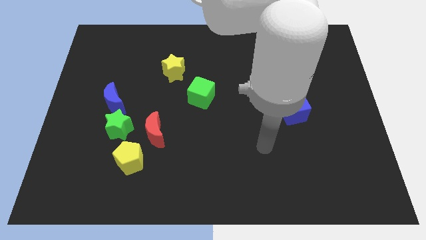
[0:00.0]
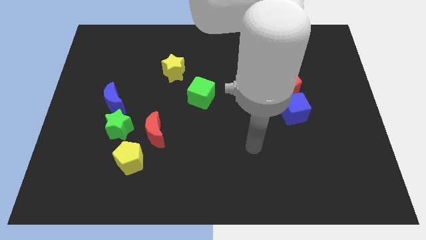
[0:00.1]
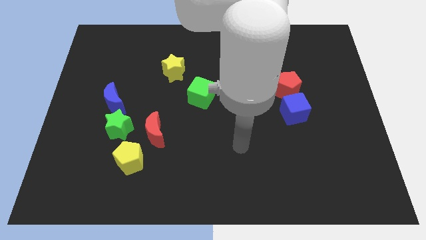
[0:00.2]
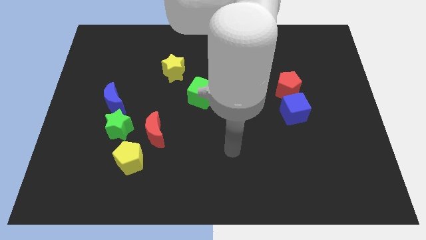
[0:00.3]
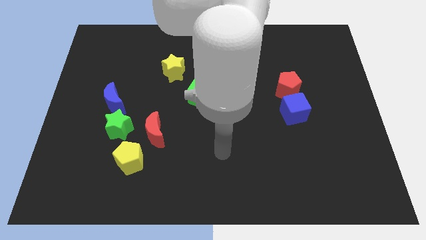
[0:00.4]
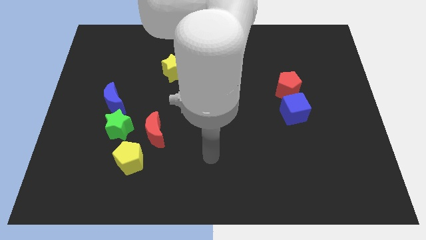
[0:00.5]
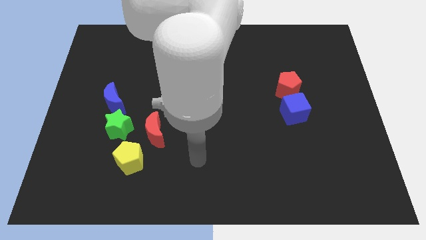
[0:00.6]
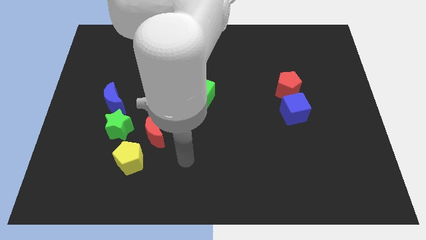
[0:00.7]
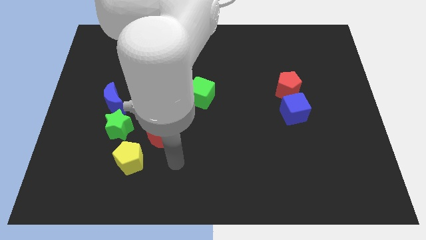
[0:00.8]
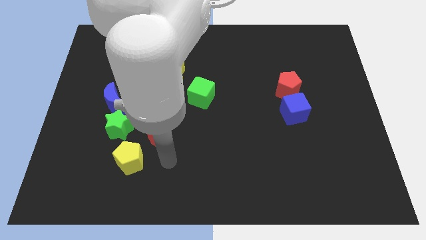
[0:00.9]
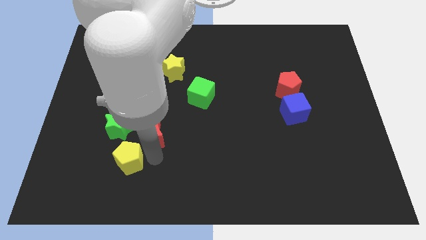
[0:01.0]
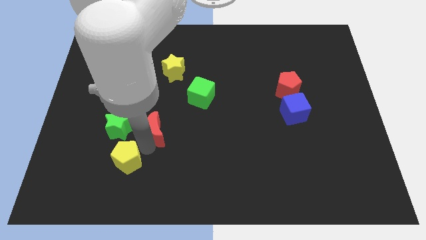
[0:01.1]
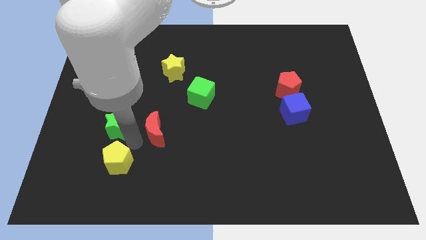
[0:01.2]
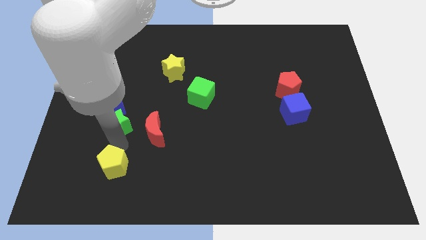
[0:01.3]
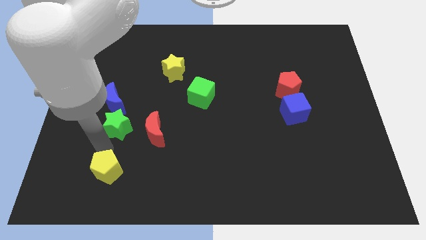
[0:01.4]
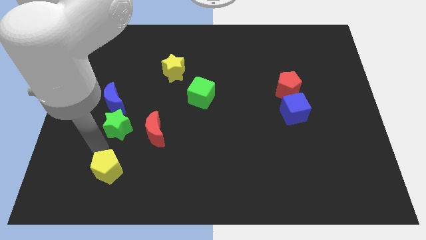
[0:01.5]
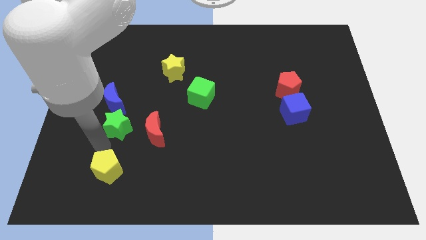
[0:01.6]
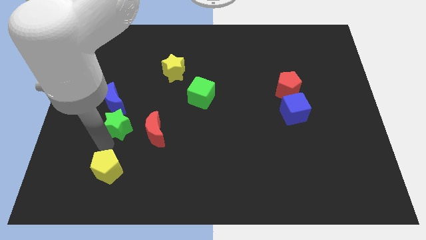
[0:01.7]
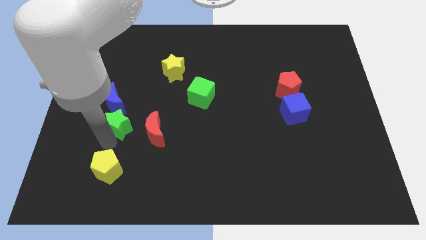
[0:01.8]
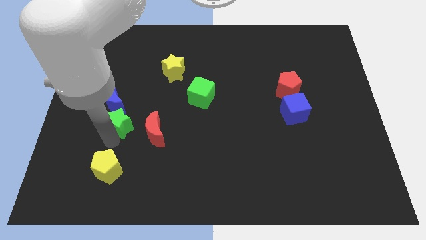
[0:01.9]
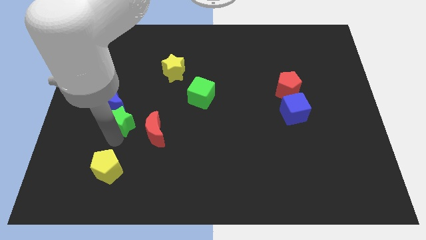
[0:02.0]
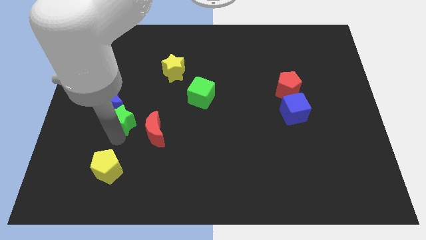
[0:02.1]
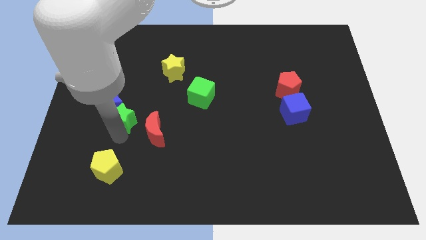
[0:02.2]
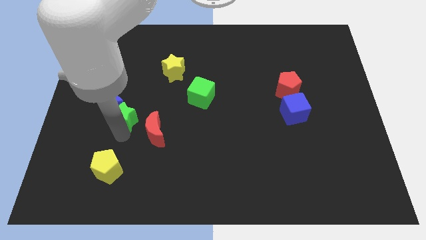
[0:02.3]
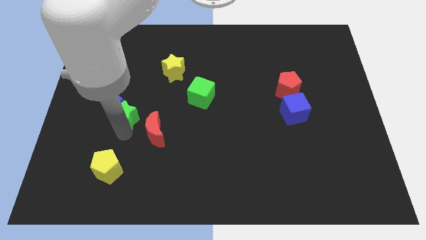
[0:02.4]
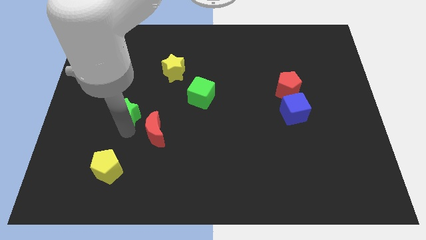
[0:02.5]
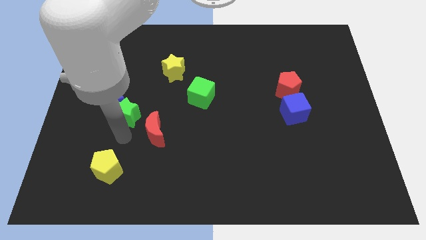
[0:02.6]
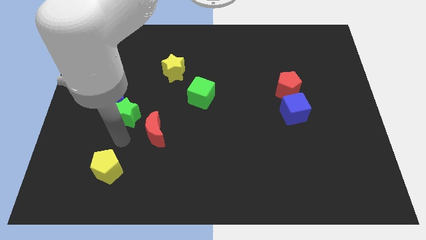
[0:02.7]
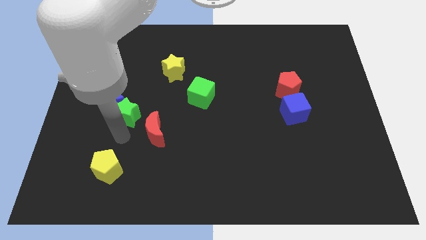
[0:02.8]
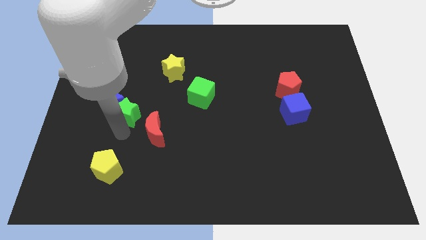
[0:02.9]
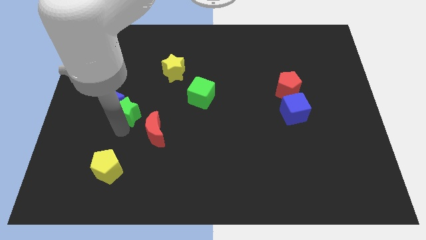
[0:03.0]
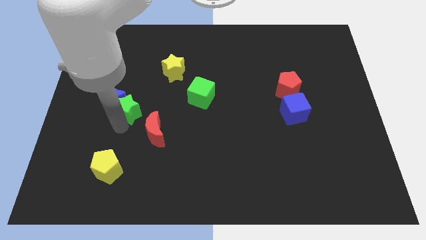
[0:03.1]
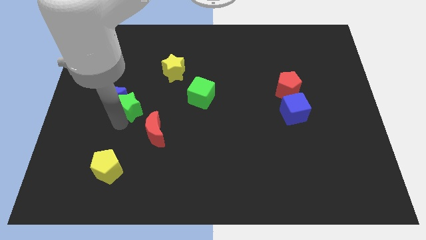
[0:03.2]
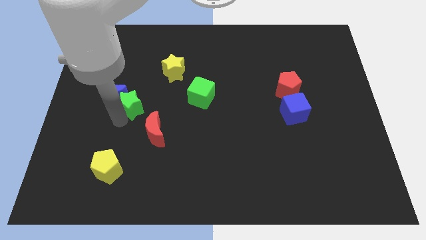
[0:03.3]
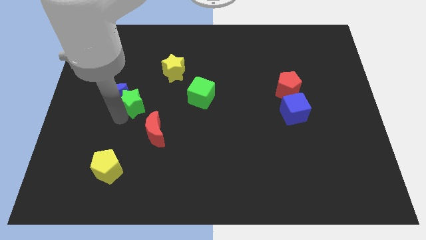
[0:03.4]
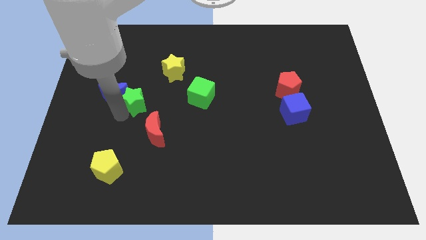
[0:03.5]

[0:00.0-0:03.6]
slightly push the green star upwards

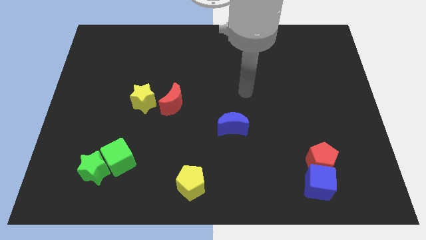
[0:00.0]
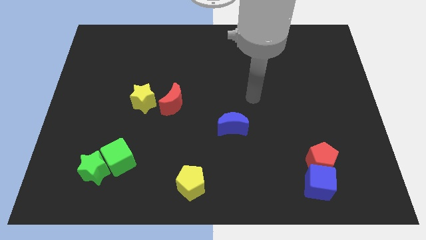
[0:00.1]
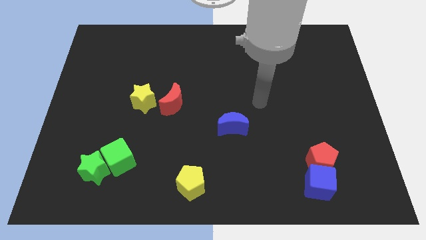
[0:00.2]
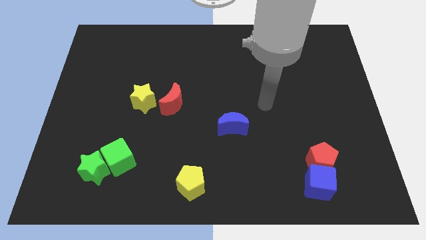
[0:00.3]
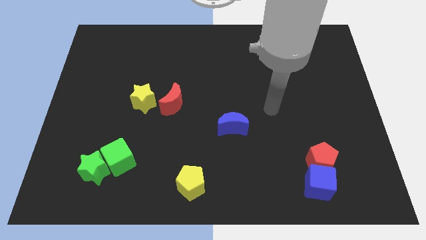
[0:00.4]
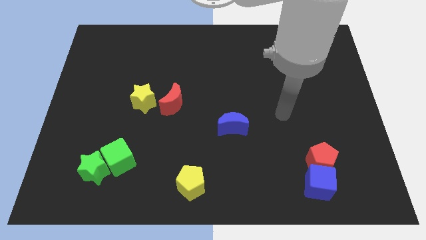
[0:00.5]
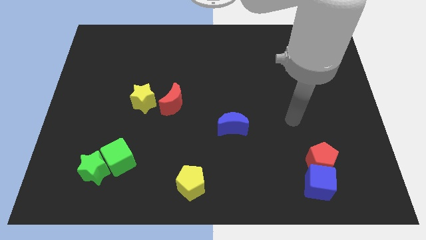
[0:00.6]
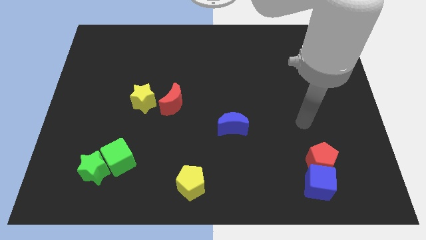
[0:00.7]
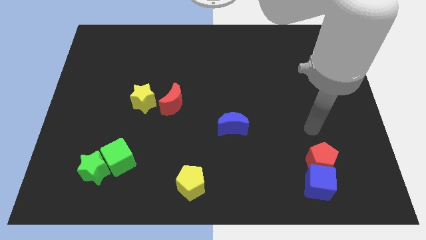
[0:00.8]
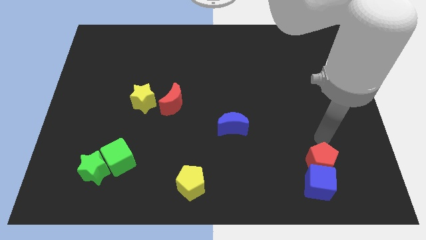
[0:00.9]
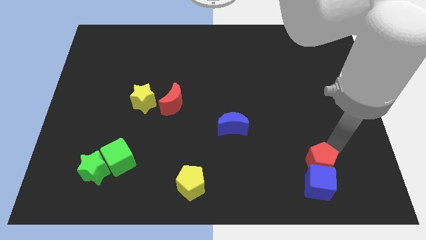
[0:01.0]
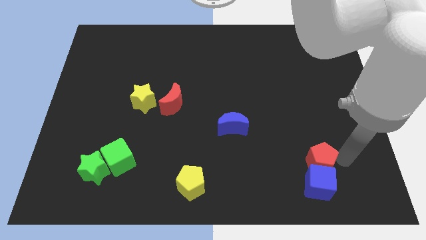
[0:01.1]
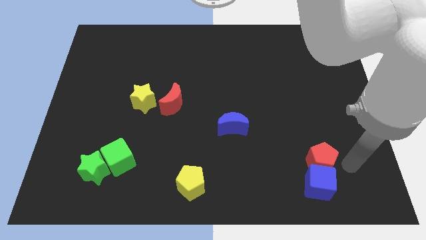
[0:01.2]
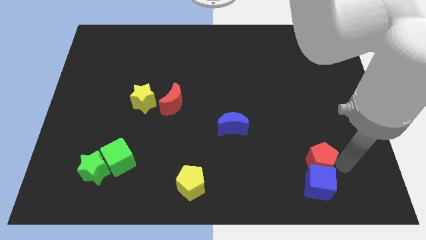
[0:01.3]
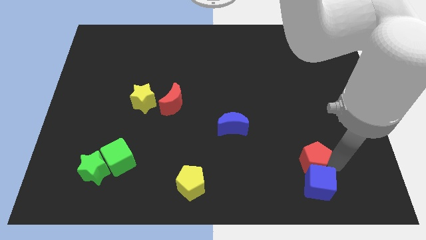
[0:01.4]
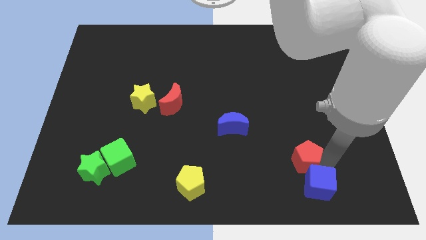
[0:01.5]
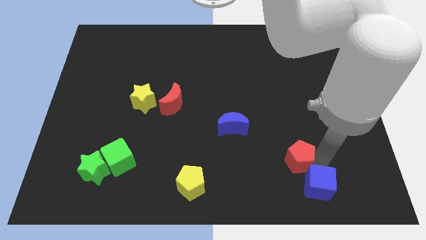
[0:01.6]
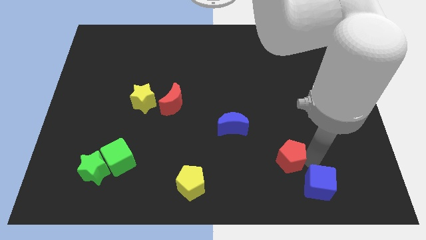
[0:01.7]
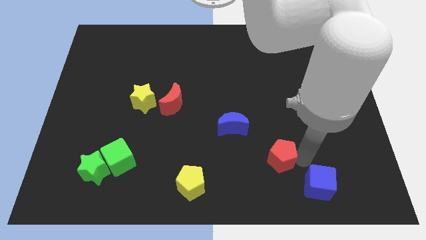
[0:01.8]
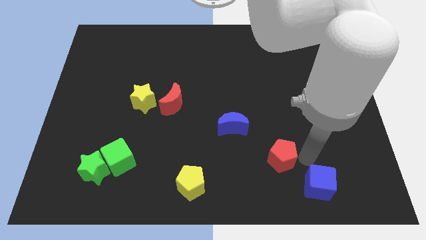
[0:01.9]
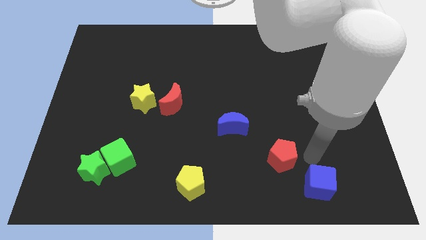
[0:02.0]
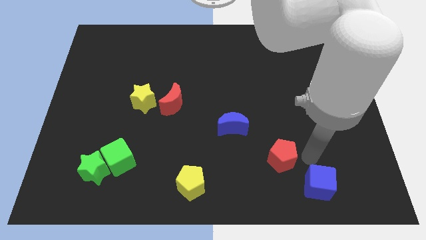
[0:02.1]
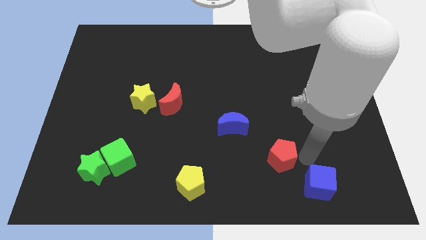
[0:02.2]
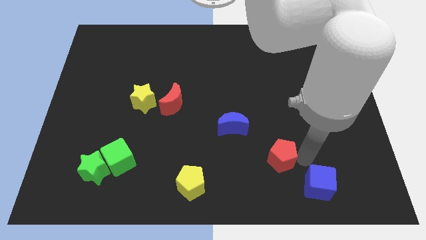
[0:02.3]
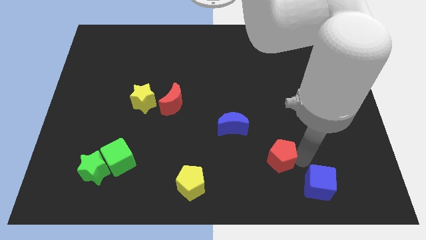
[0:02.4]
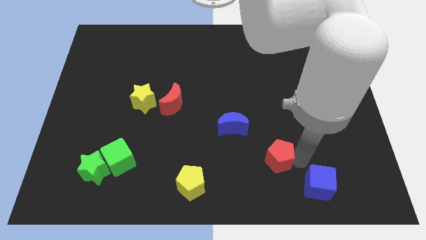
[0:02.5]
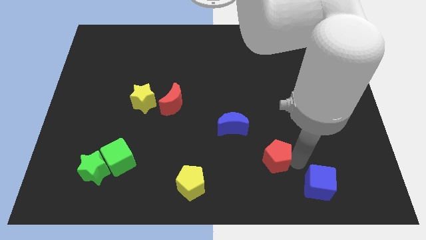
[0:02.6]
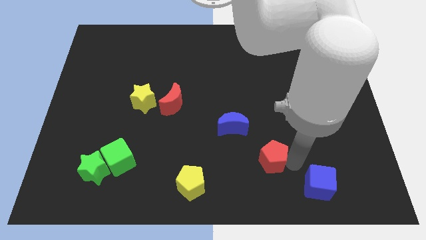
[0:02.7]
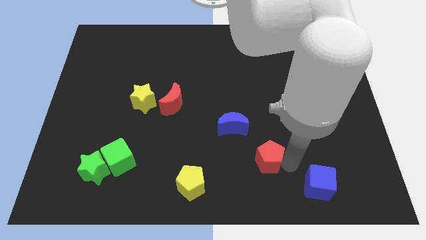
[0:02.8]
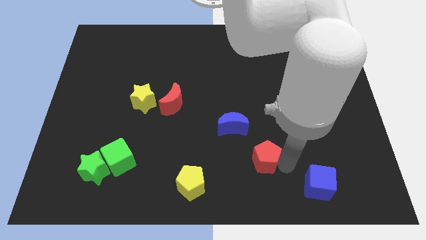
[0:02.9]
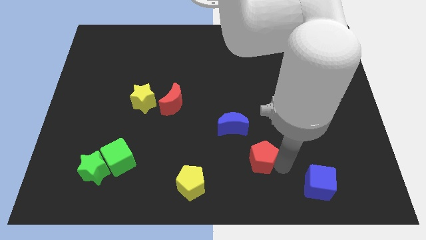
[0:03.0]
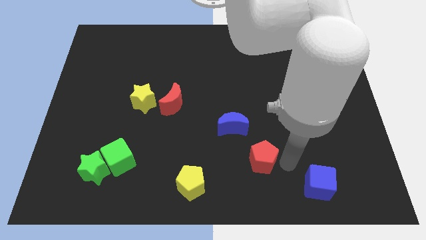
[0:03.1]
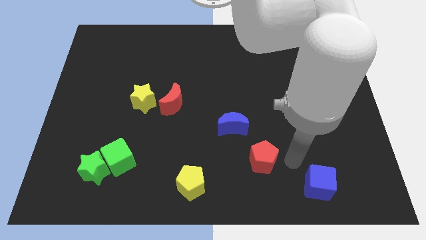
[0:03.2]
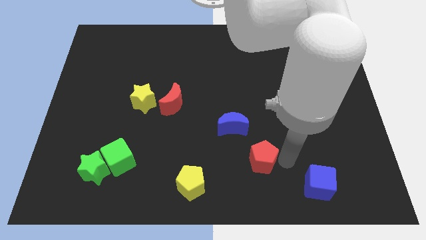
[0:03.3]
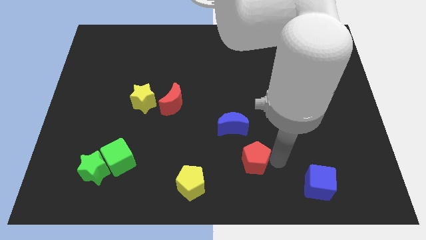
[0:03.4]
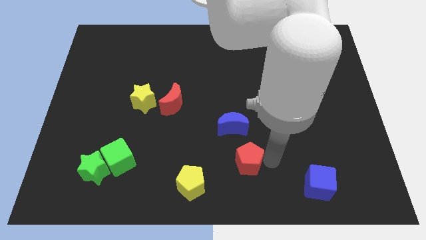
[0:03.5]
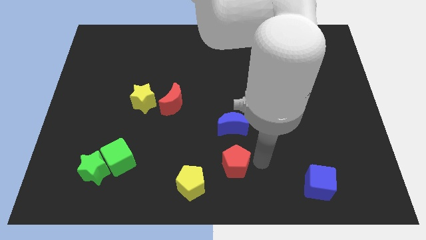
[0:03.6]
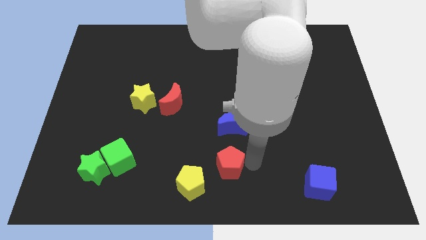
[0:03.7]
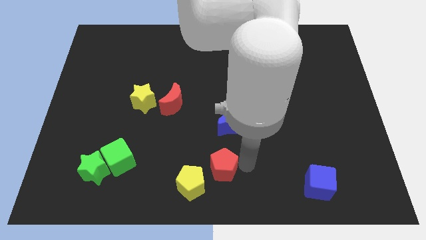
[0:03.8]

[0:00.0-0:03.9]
push the red pentagon to the left

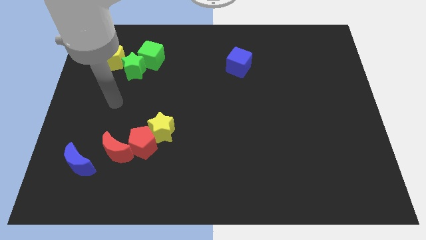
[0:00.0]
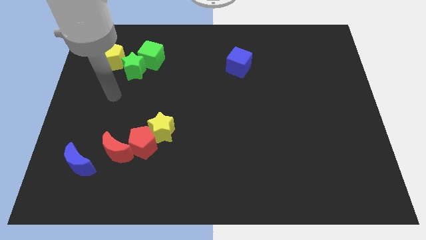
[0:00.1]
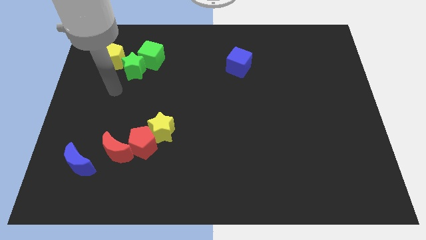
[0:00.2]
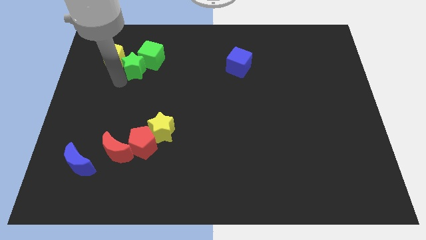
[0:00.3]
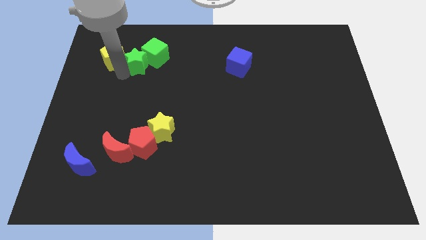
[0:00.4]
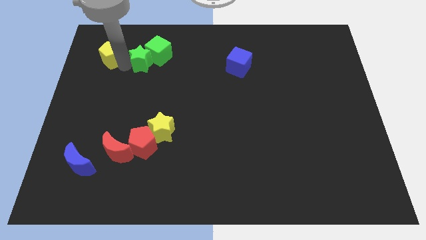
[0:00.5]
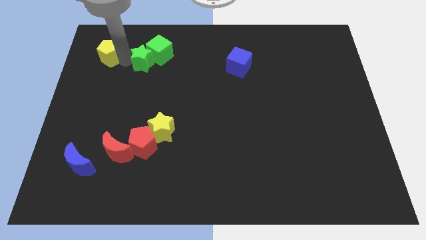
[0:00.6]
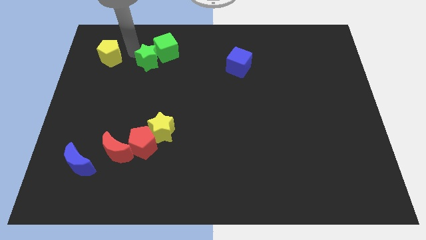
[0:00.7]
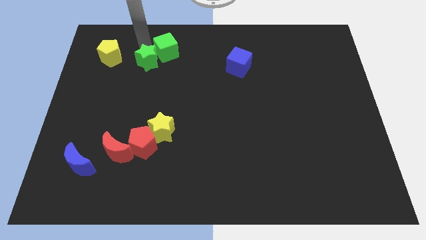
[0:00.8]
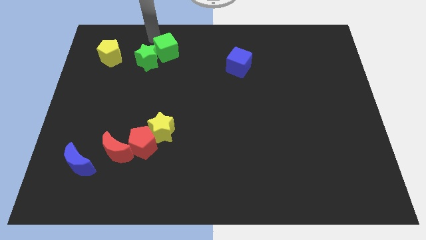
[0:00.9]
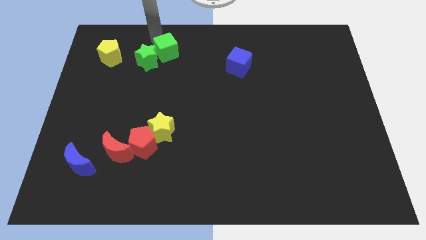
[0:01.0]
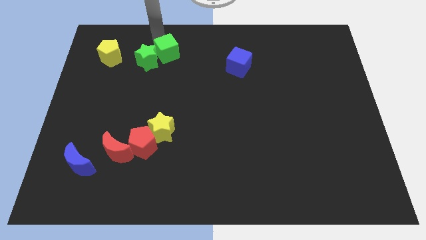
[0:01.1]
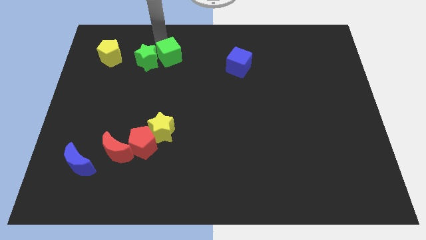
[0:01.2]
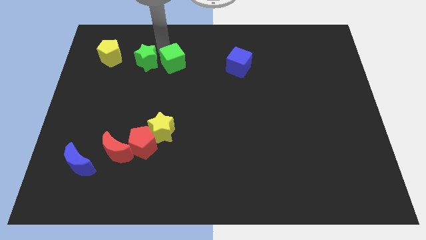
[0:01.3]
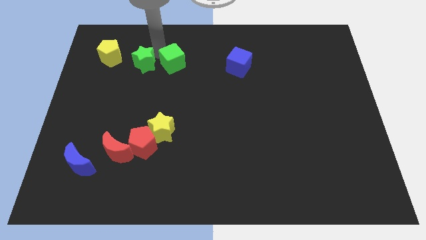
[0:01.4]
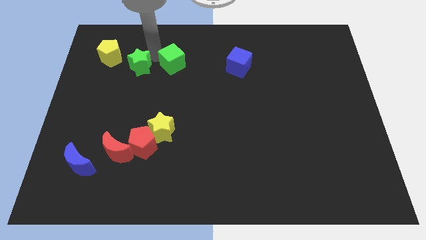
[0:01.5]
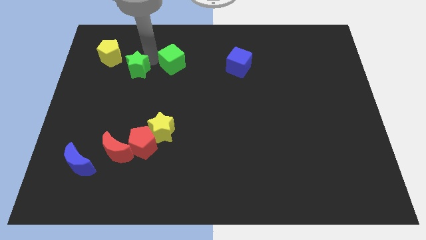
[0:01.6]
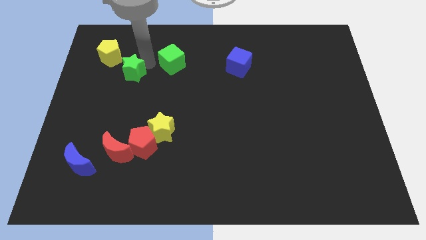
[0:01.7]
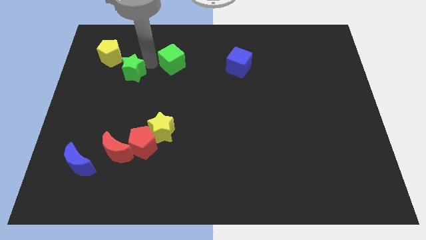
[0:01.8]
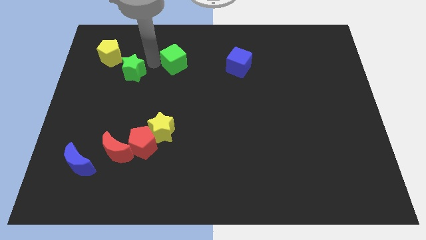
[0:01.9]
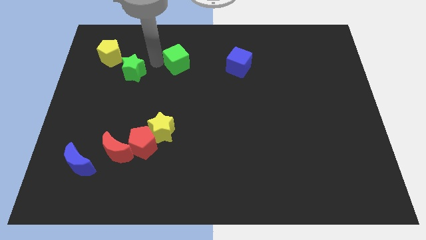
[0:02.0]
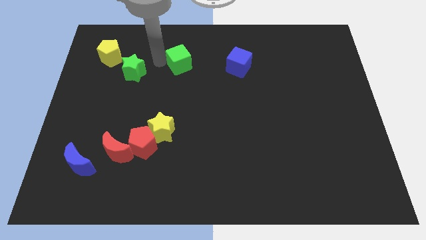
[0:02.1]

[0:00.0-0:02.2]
push the green cube right a little bit
